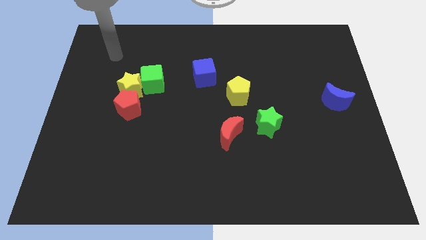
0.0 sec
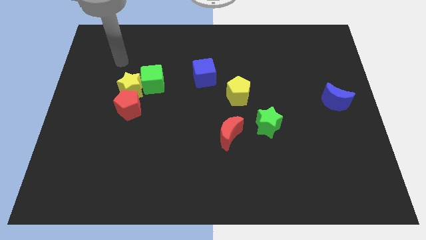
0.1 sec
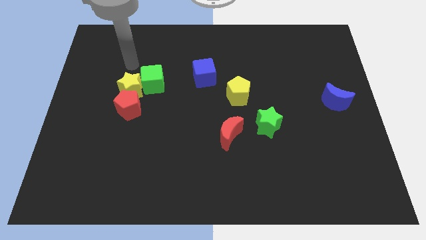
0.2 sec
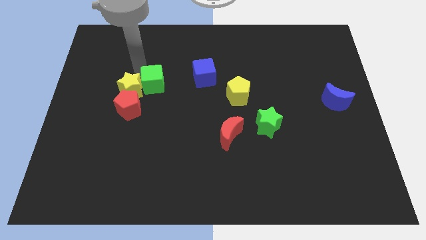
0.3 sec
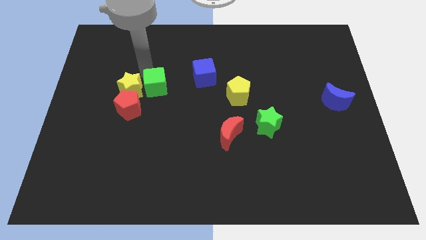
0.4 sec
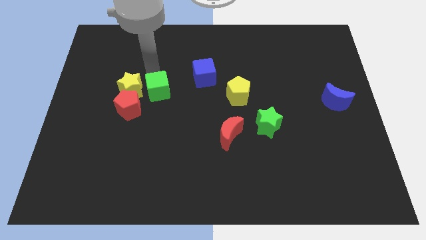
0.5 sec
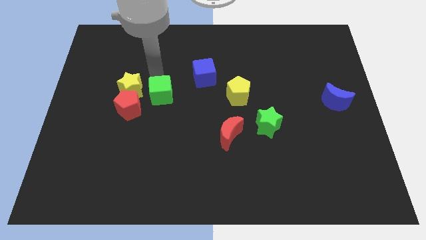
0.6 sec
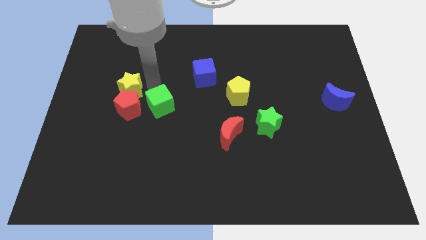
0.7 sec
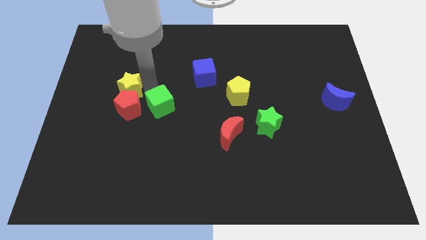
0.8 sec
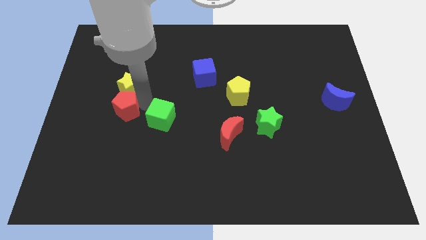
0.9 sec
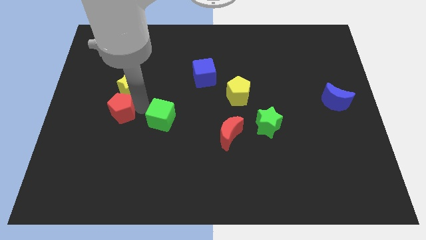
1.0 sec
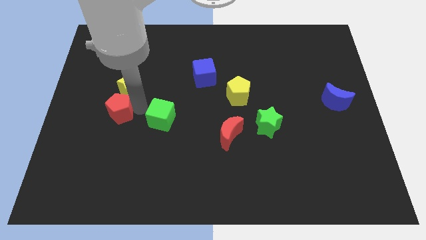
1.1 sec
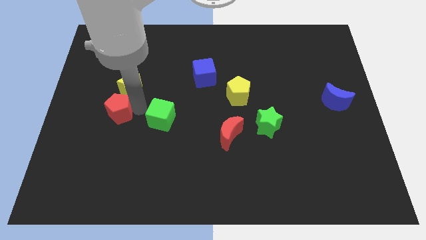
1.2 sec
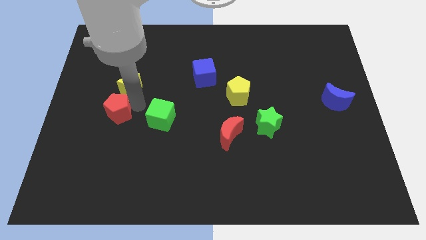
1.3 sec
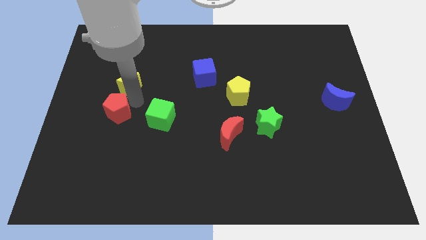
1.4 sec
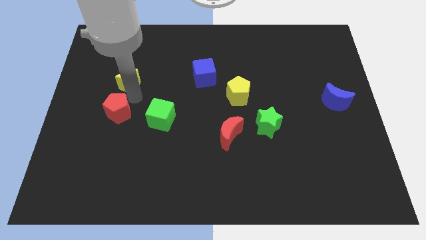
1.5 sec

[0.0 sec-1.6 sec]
separate the yellow star from the green cube and red pentagon

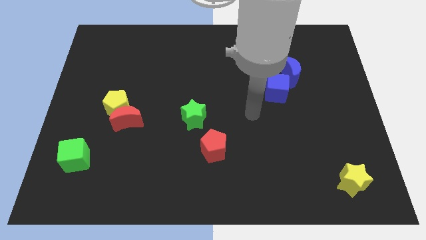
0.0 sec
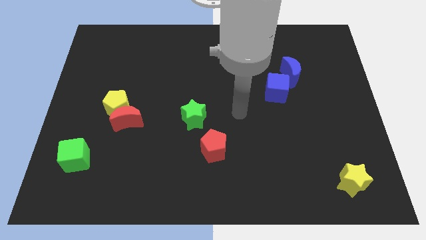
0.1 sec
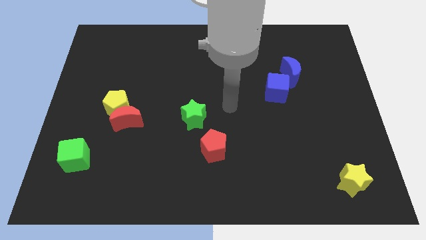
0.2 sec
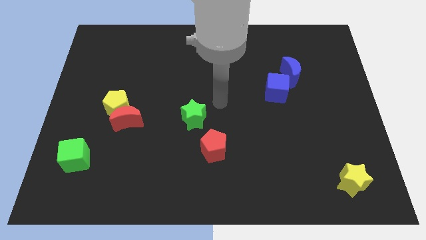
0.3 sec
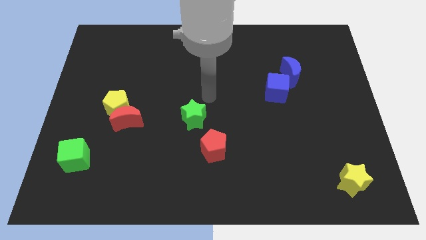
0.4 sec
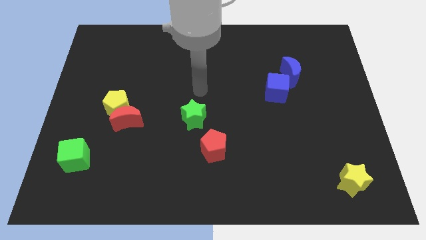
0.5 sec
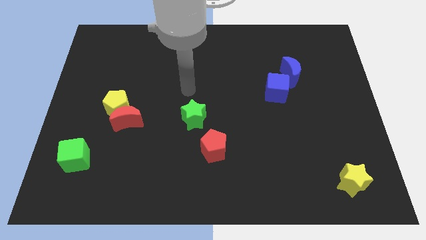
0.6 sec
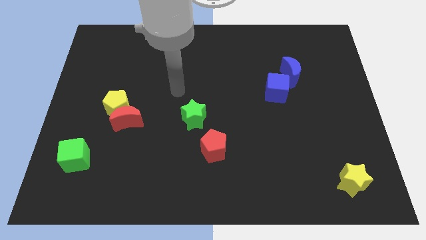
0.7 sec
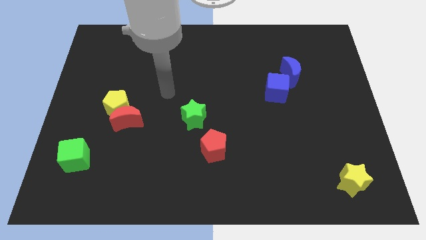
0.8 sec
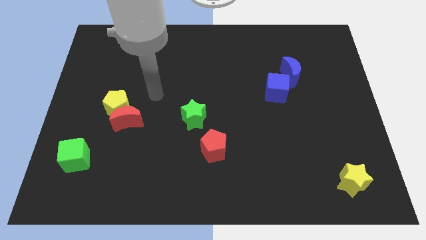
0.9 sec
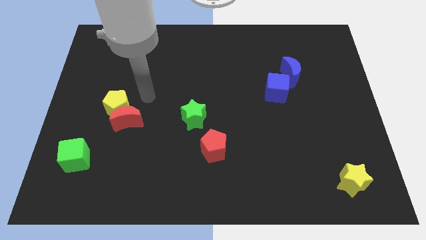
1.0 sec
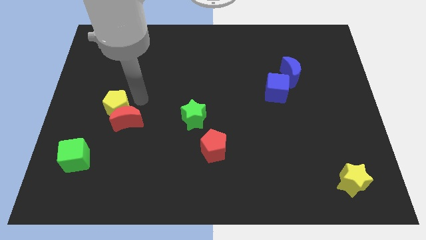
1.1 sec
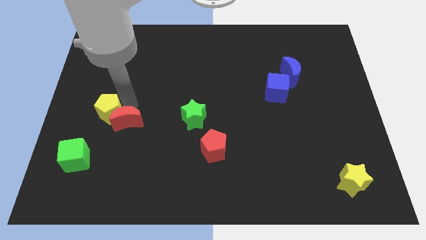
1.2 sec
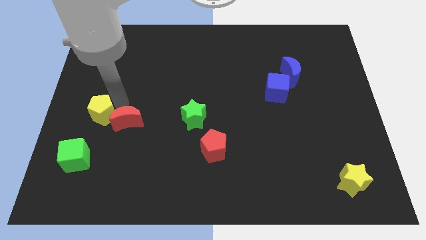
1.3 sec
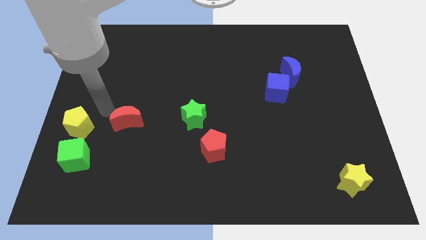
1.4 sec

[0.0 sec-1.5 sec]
move the red moon away from the yellow pentagon

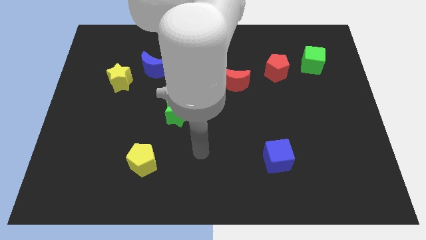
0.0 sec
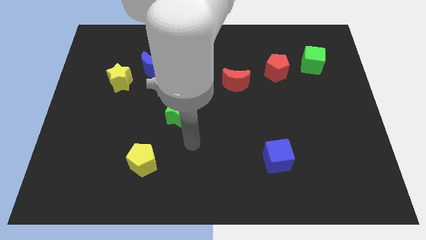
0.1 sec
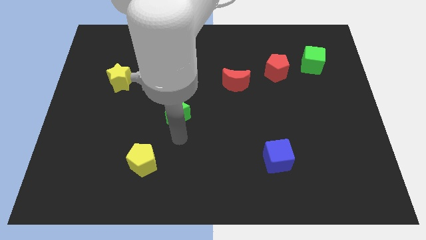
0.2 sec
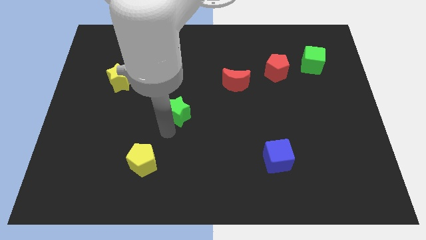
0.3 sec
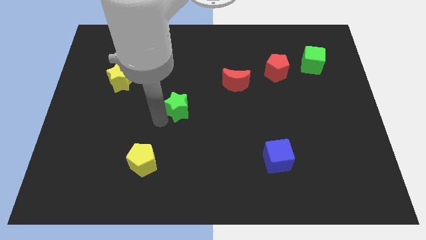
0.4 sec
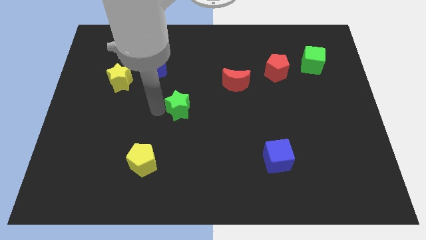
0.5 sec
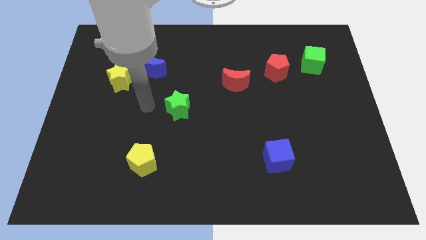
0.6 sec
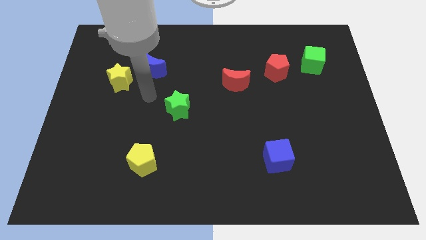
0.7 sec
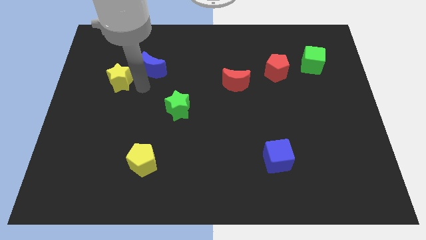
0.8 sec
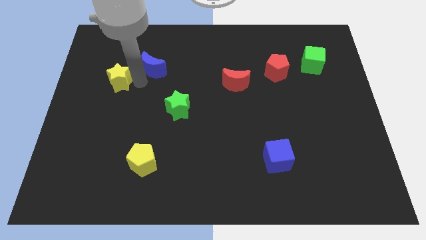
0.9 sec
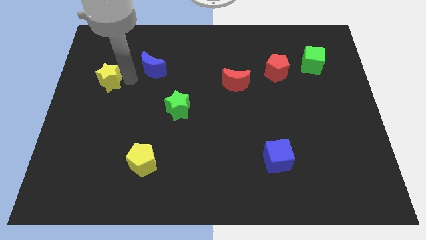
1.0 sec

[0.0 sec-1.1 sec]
separate the blue moon from the yellow star

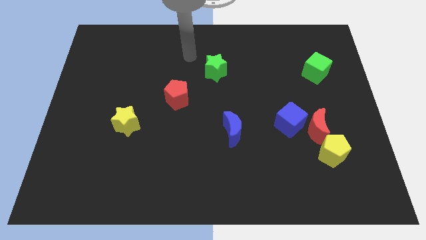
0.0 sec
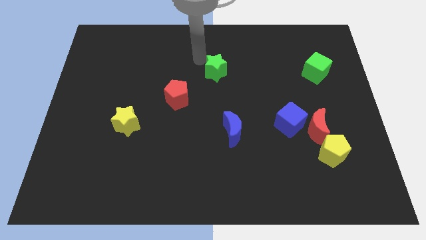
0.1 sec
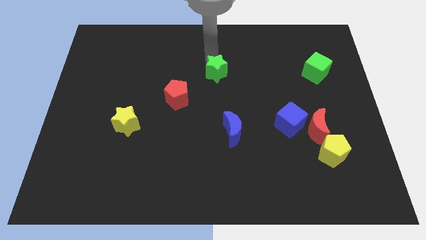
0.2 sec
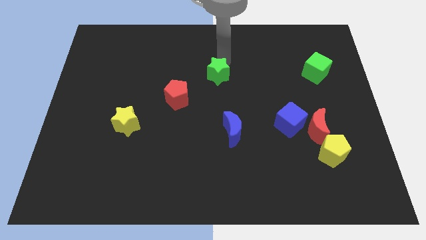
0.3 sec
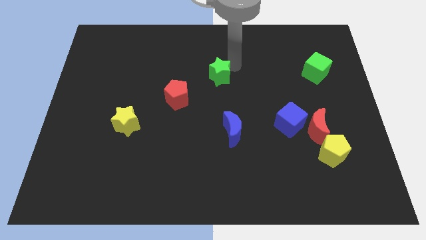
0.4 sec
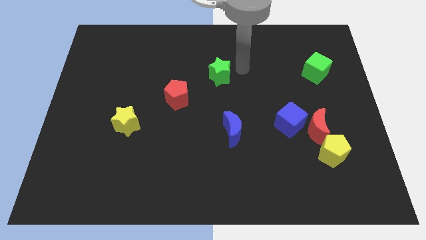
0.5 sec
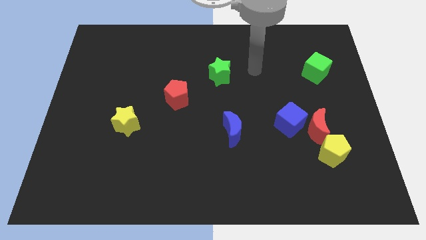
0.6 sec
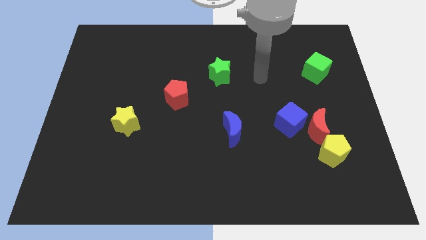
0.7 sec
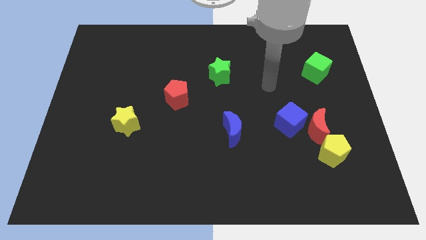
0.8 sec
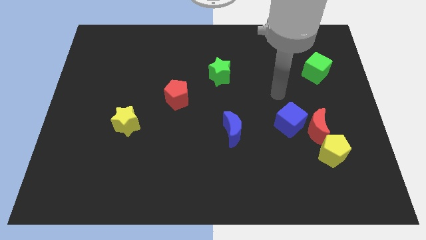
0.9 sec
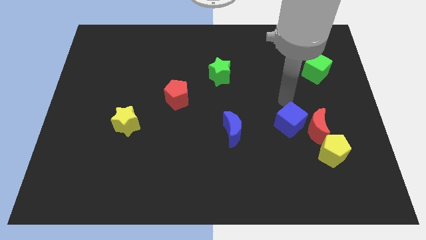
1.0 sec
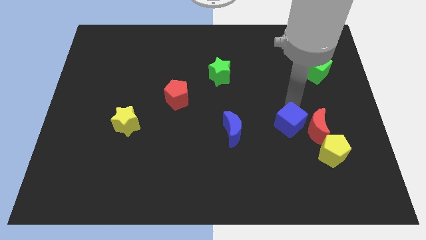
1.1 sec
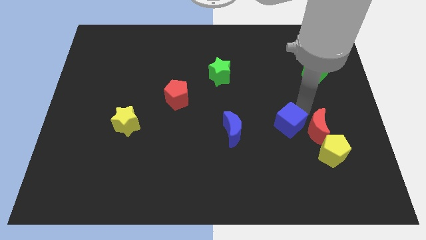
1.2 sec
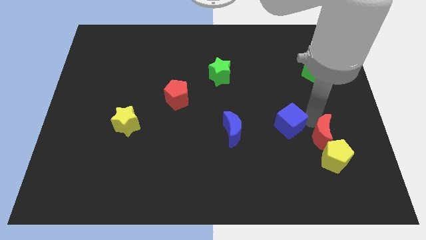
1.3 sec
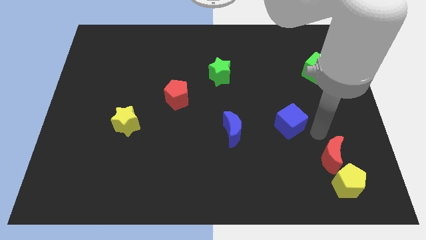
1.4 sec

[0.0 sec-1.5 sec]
separate the blue cube from the red moon

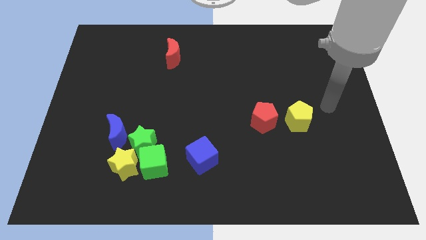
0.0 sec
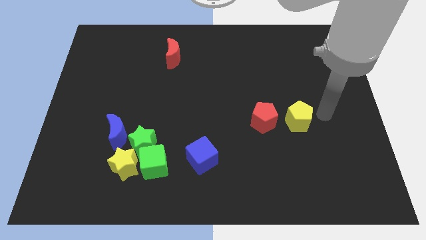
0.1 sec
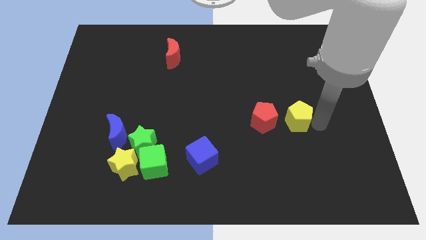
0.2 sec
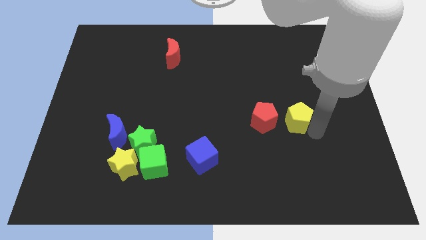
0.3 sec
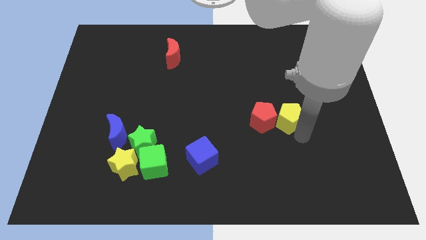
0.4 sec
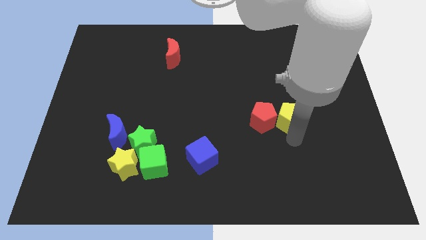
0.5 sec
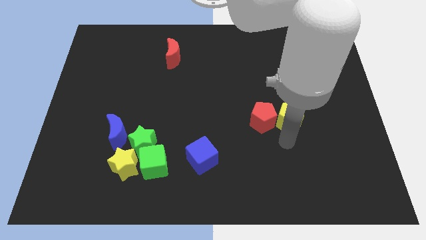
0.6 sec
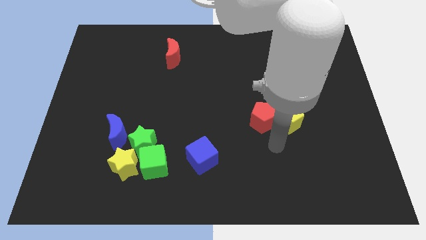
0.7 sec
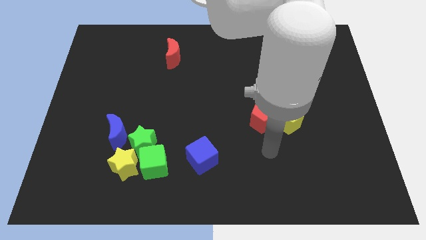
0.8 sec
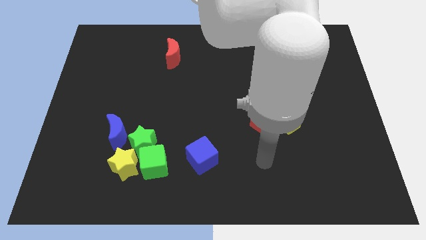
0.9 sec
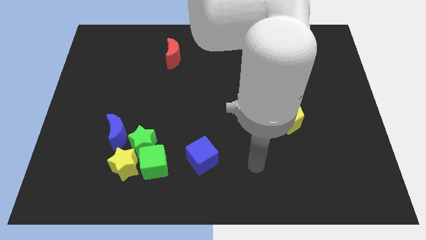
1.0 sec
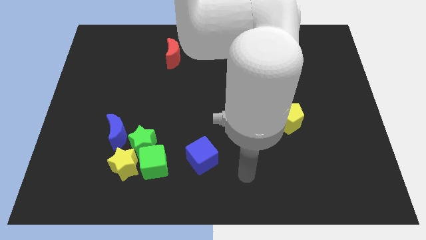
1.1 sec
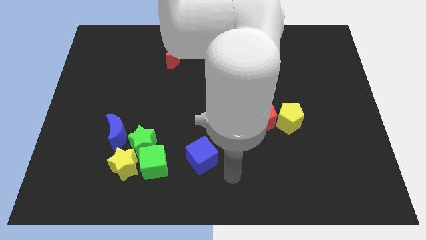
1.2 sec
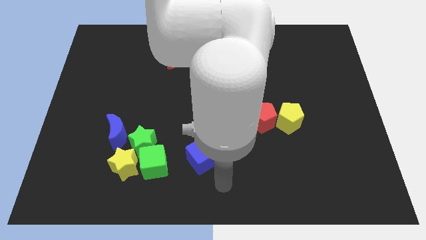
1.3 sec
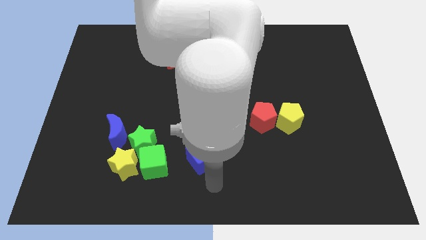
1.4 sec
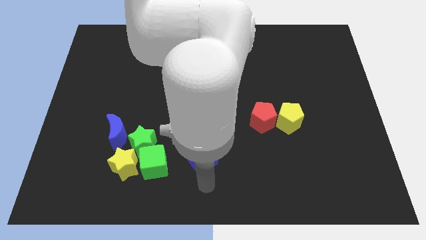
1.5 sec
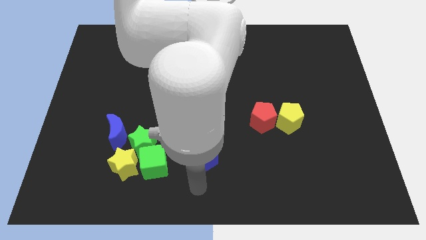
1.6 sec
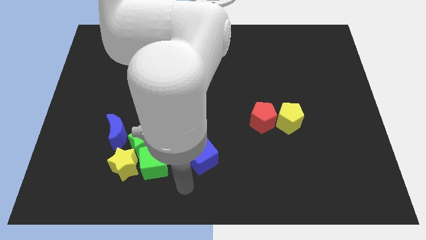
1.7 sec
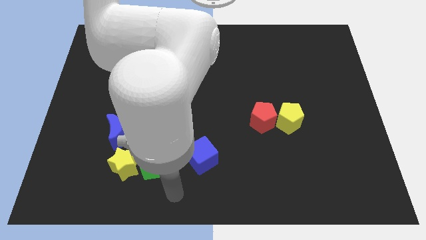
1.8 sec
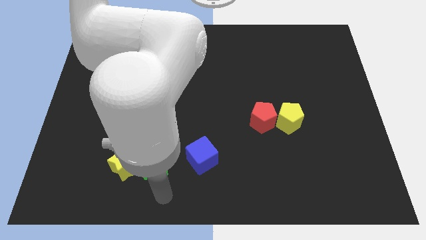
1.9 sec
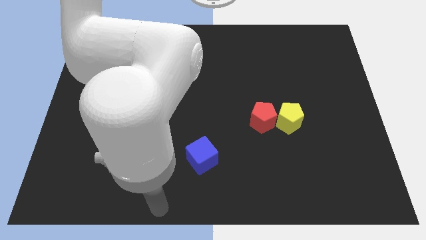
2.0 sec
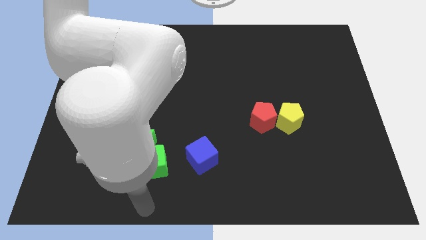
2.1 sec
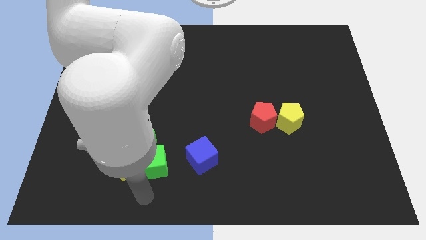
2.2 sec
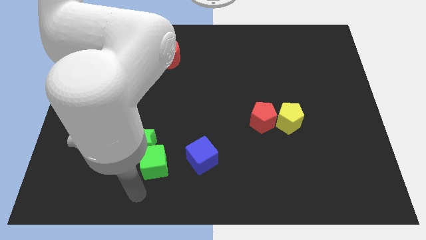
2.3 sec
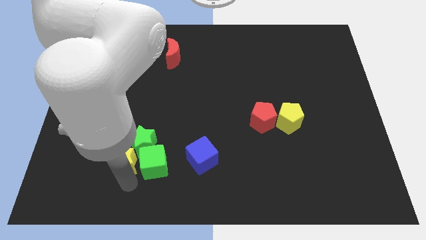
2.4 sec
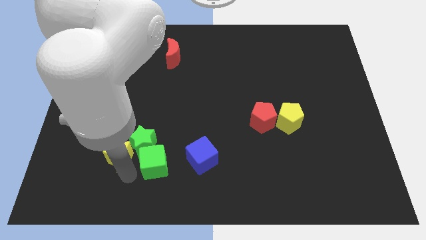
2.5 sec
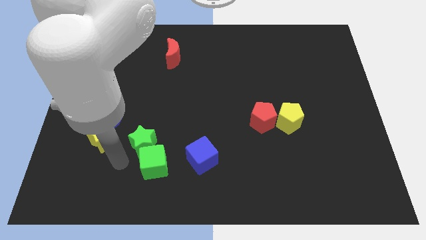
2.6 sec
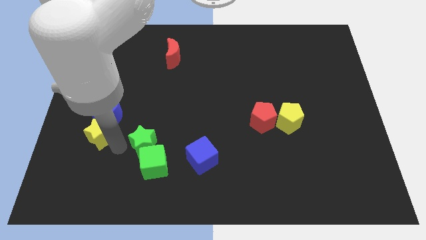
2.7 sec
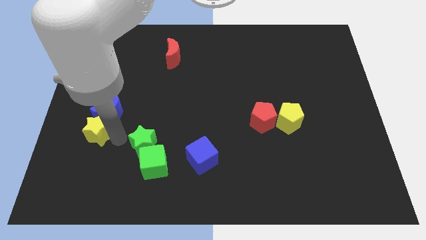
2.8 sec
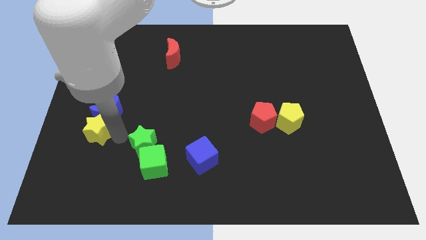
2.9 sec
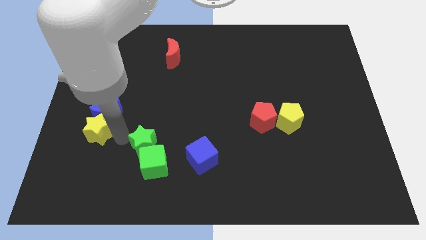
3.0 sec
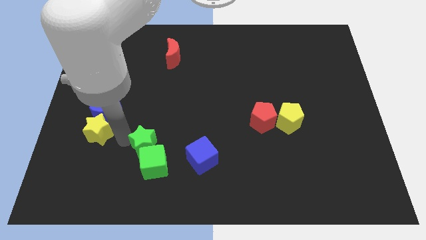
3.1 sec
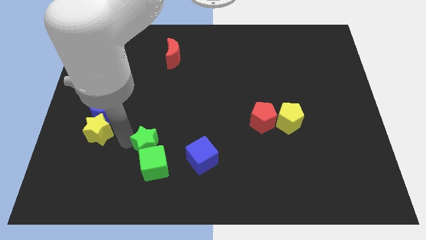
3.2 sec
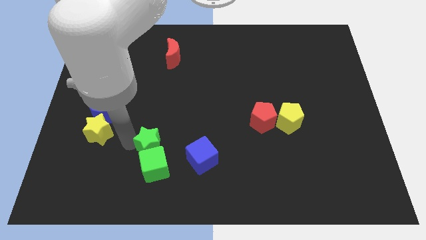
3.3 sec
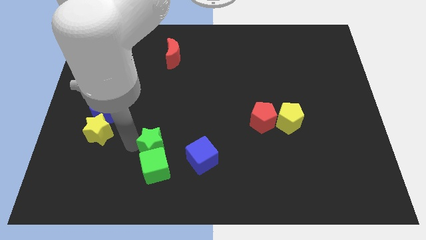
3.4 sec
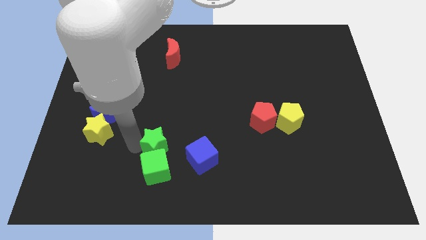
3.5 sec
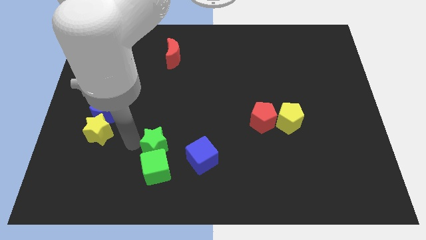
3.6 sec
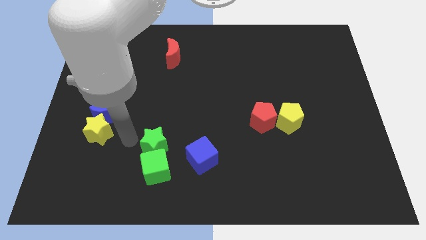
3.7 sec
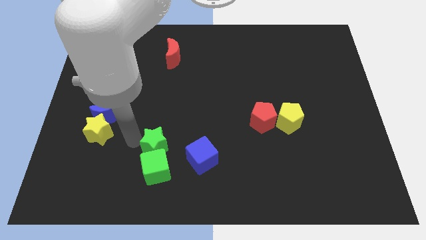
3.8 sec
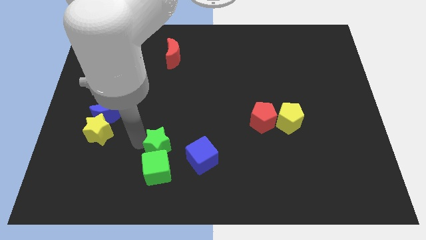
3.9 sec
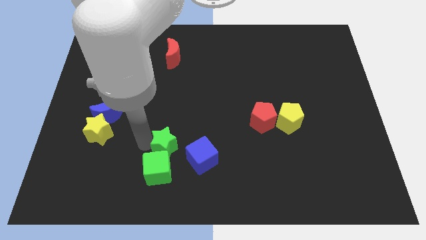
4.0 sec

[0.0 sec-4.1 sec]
pull the green star apart from the green cube, yellow star, and blue moon
